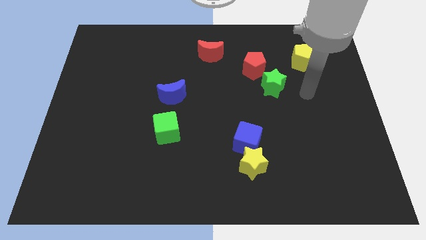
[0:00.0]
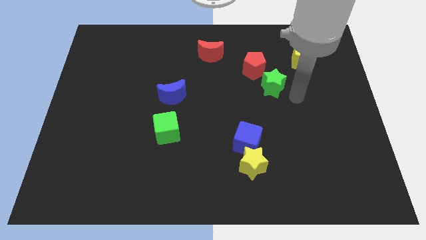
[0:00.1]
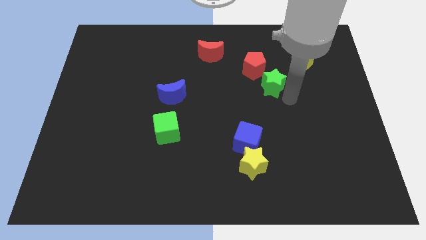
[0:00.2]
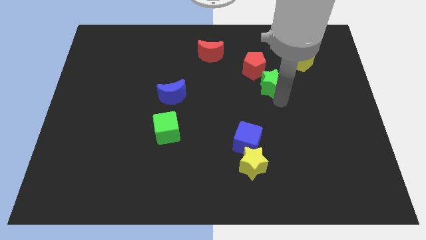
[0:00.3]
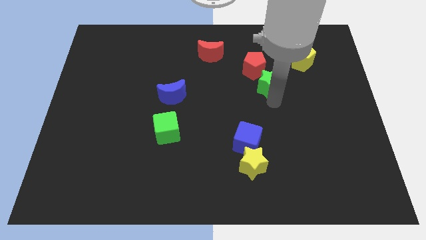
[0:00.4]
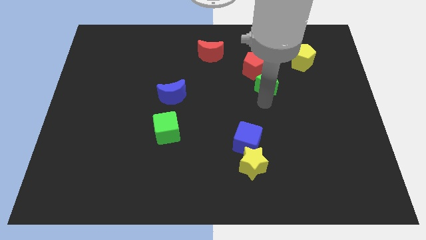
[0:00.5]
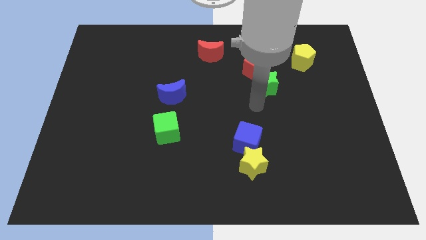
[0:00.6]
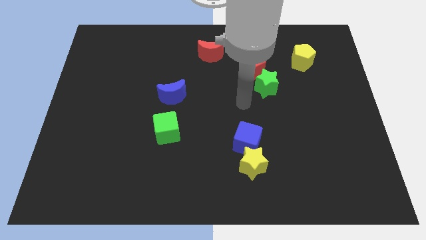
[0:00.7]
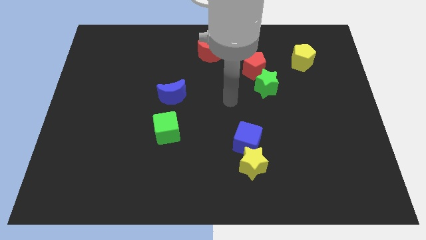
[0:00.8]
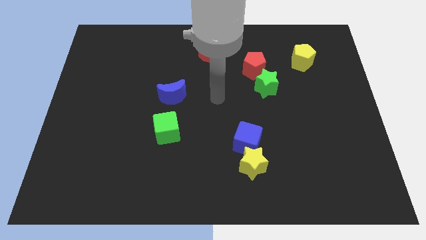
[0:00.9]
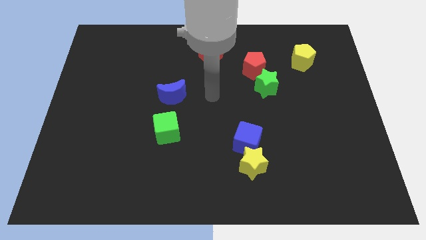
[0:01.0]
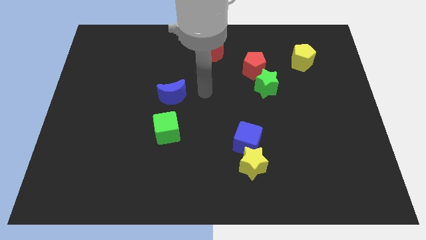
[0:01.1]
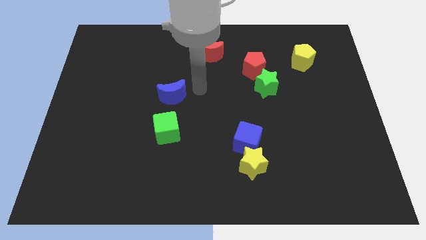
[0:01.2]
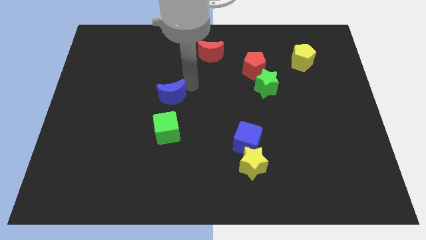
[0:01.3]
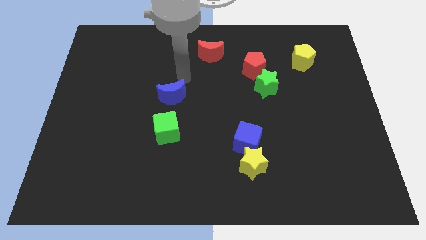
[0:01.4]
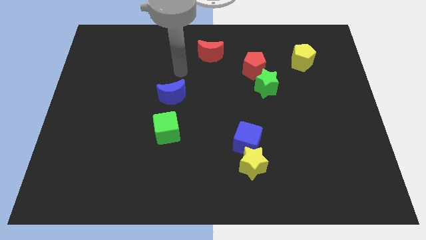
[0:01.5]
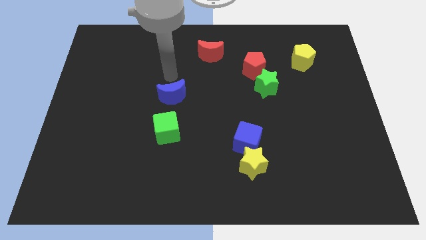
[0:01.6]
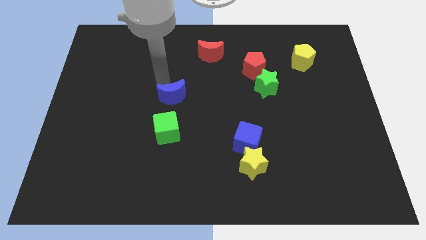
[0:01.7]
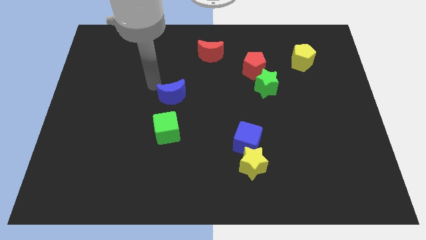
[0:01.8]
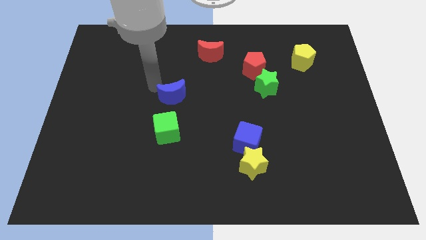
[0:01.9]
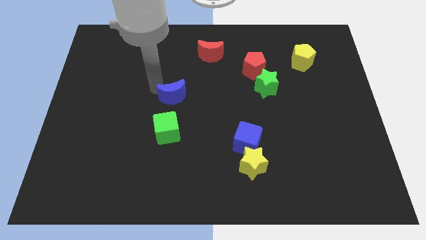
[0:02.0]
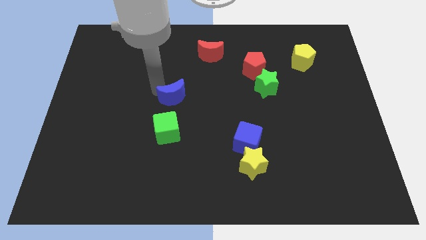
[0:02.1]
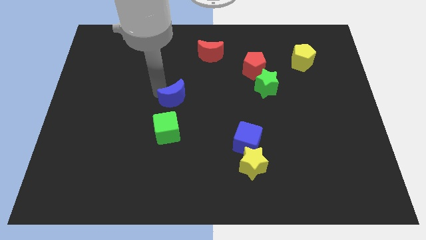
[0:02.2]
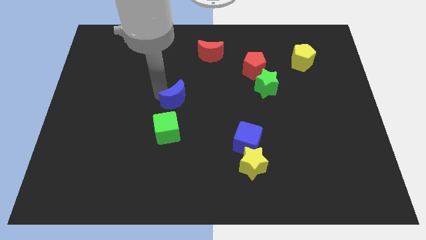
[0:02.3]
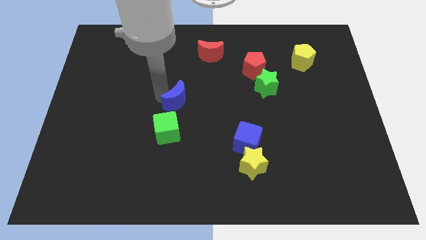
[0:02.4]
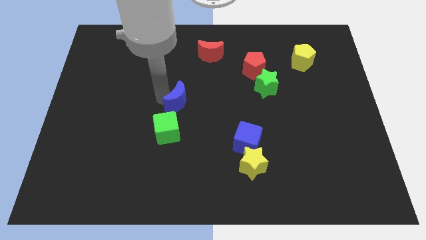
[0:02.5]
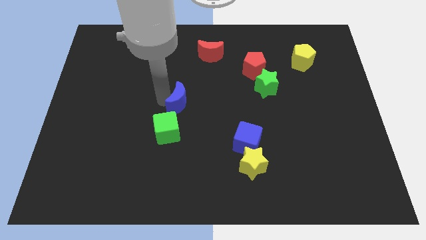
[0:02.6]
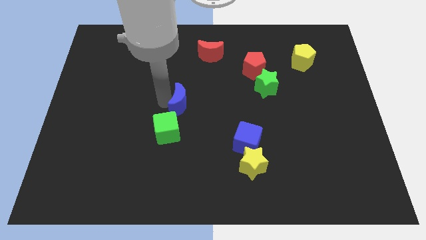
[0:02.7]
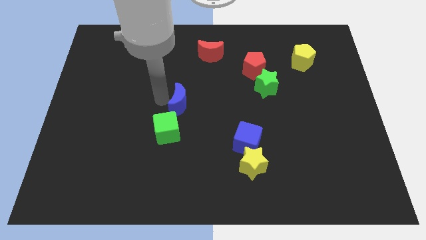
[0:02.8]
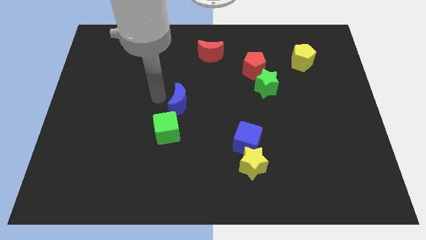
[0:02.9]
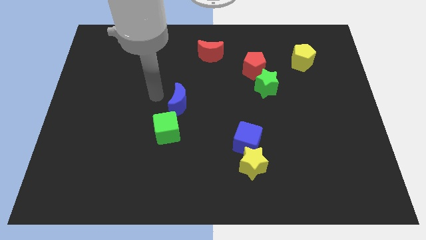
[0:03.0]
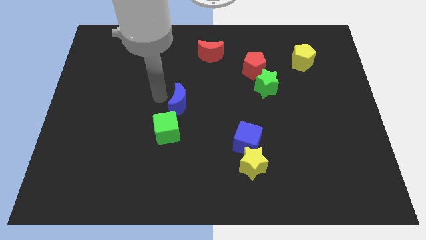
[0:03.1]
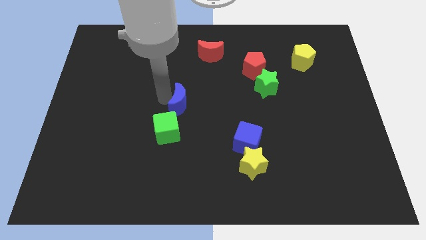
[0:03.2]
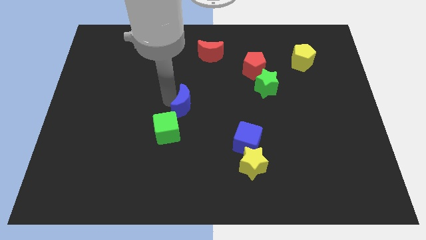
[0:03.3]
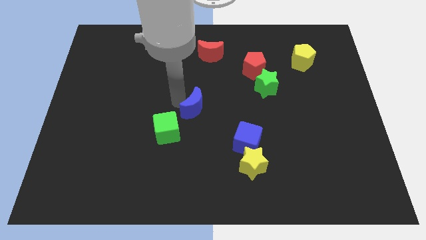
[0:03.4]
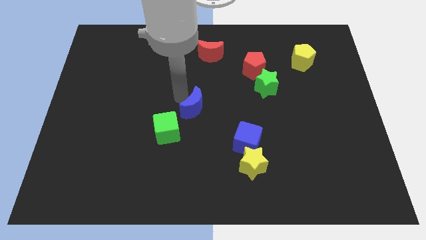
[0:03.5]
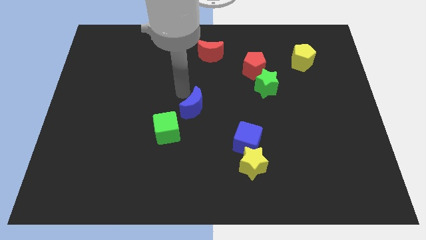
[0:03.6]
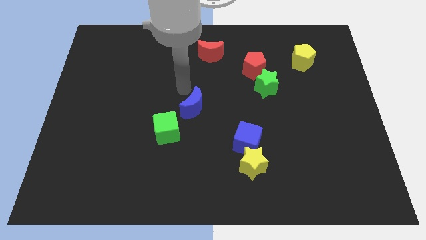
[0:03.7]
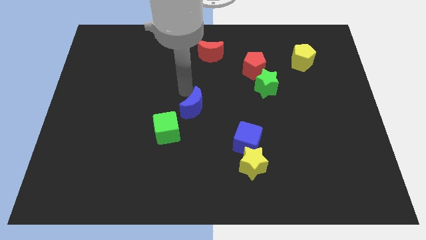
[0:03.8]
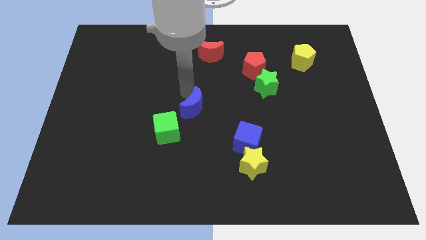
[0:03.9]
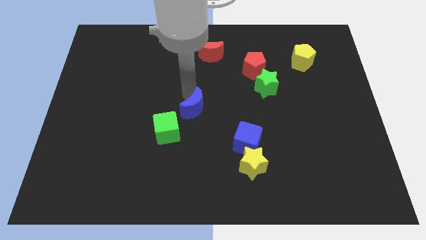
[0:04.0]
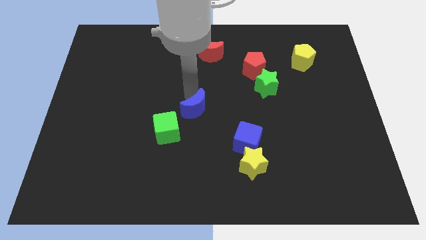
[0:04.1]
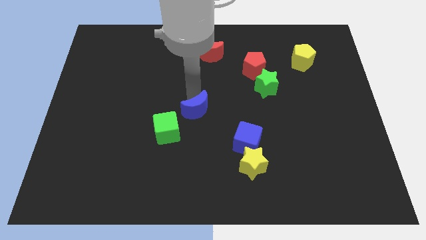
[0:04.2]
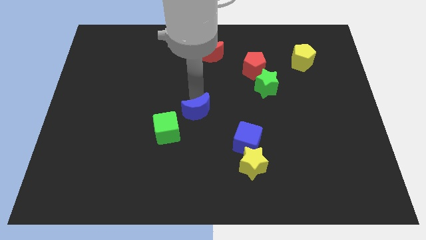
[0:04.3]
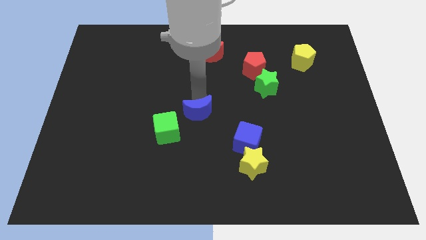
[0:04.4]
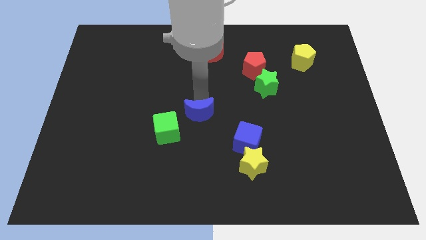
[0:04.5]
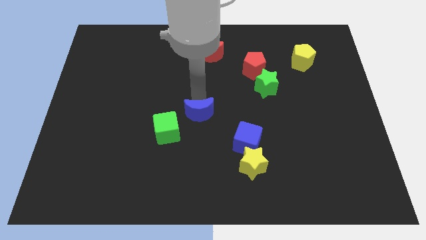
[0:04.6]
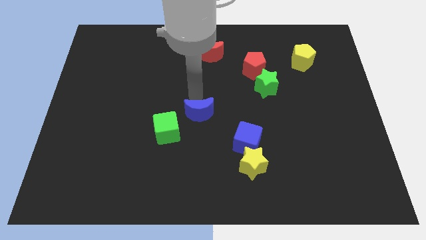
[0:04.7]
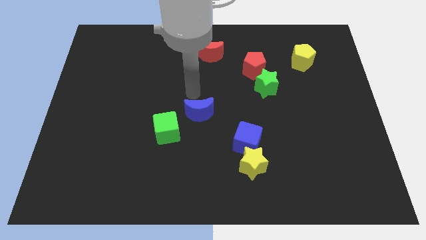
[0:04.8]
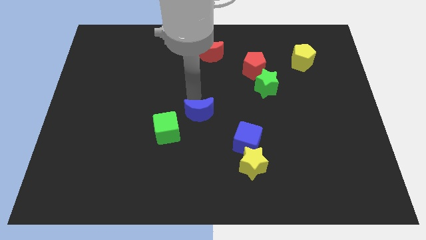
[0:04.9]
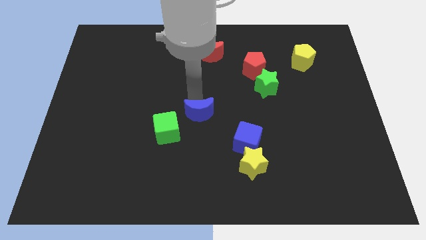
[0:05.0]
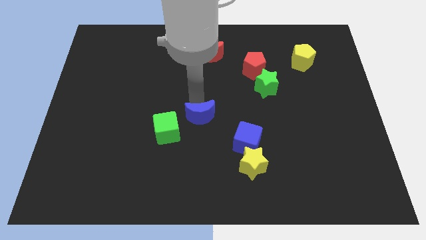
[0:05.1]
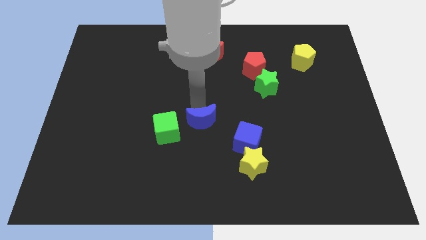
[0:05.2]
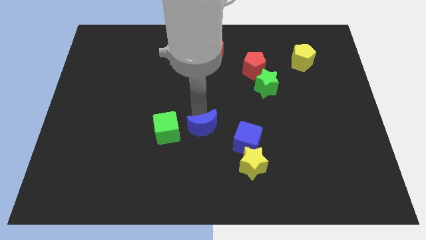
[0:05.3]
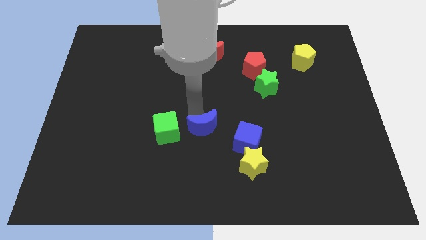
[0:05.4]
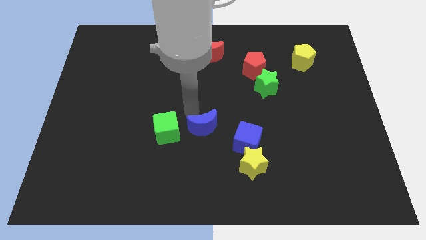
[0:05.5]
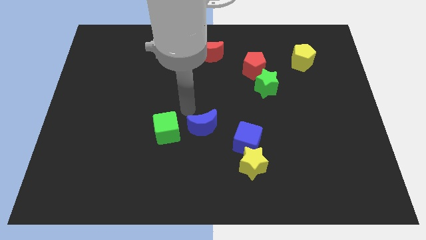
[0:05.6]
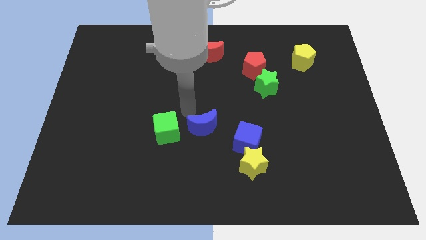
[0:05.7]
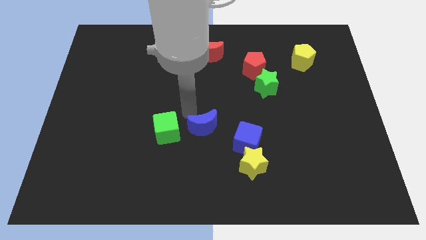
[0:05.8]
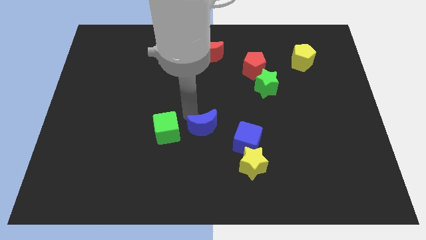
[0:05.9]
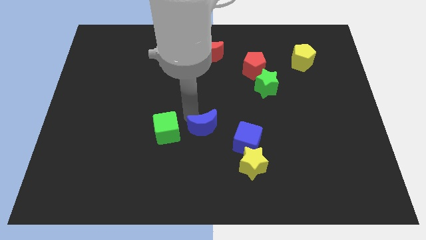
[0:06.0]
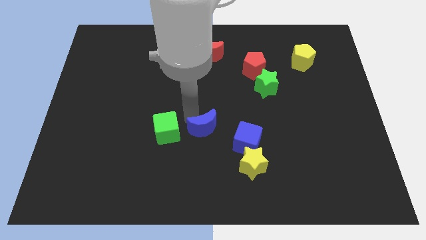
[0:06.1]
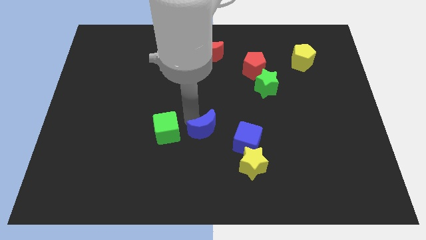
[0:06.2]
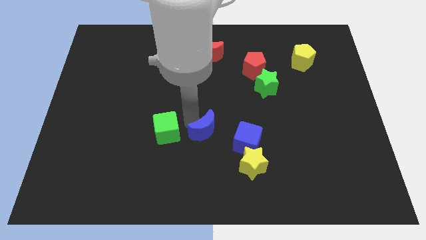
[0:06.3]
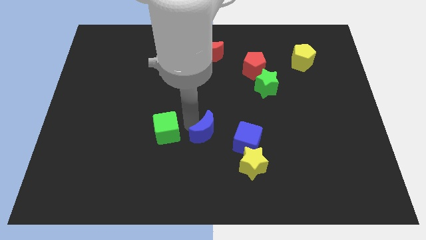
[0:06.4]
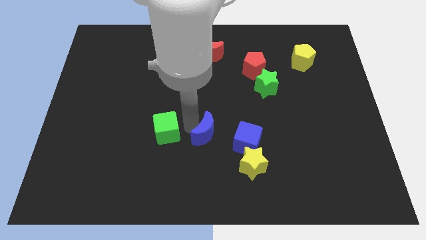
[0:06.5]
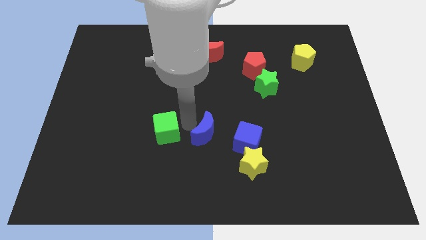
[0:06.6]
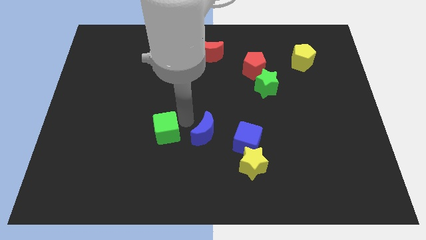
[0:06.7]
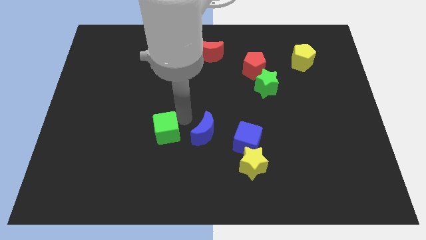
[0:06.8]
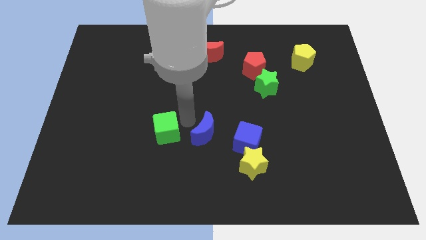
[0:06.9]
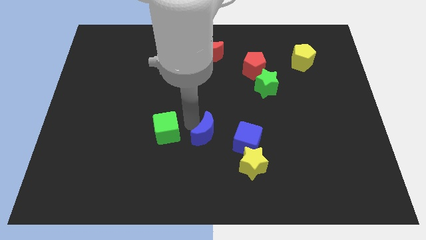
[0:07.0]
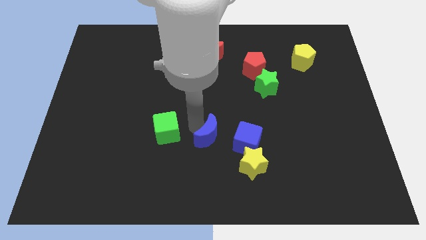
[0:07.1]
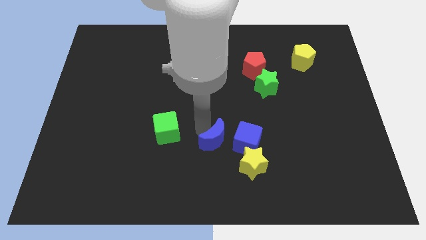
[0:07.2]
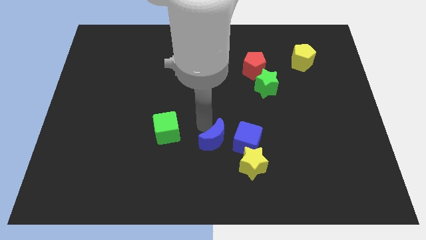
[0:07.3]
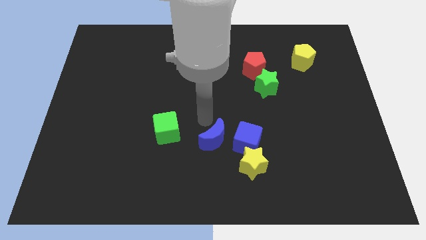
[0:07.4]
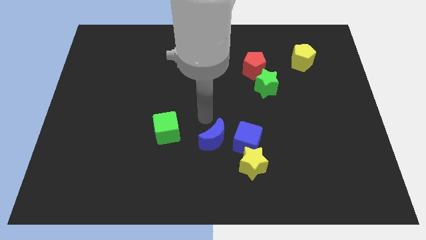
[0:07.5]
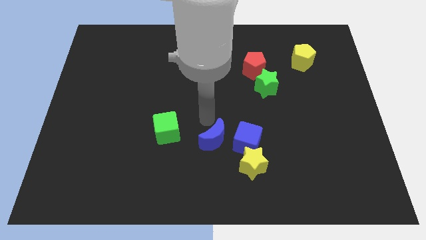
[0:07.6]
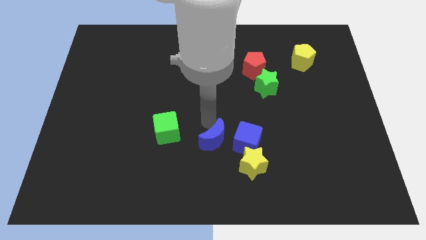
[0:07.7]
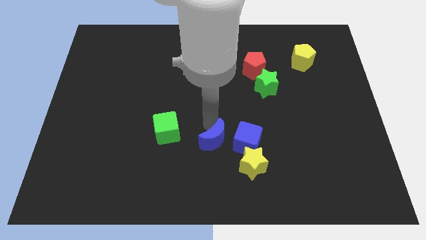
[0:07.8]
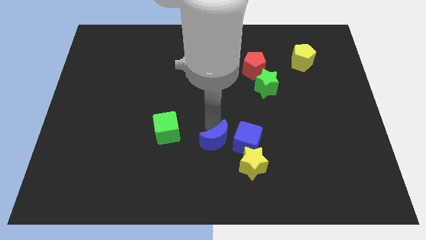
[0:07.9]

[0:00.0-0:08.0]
slide the blue moon to the bottom left side of the blue cube

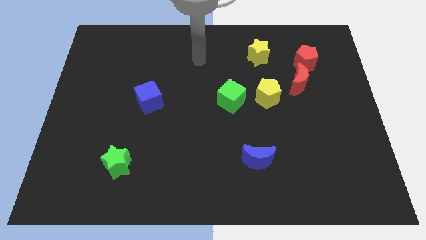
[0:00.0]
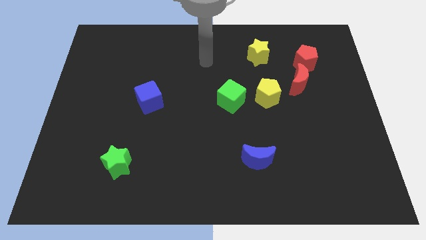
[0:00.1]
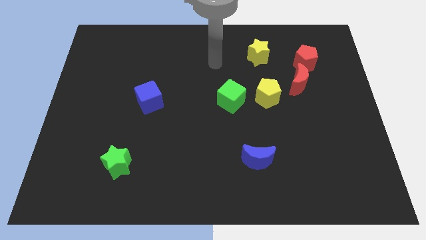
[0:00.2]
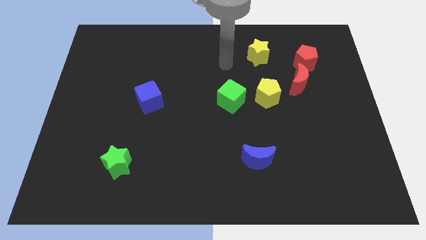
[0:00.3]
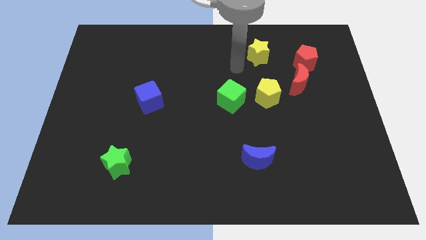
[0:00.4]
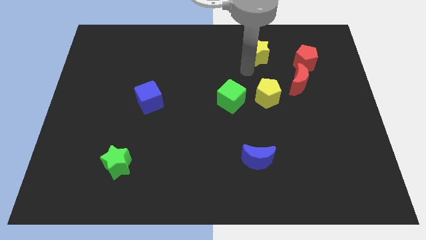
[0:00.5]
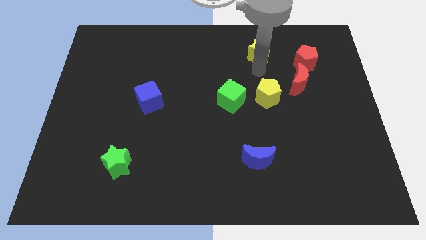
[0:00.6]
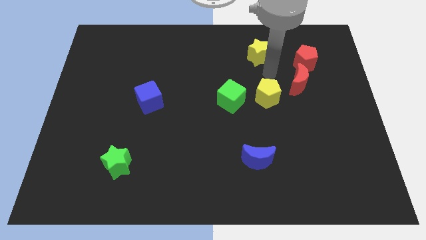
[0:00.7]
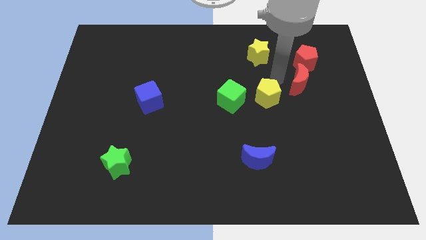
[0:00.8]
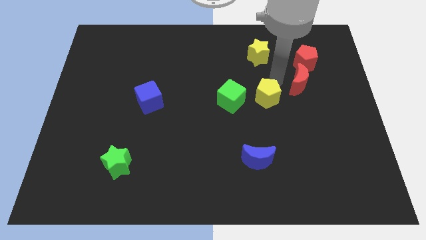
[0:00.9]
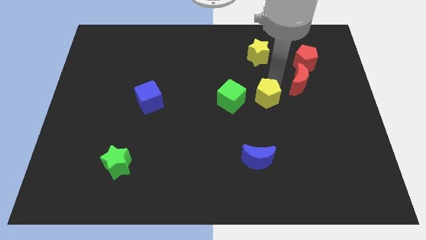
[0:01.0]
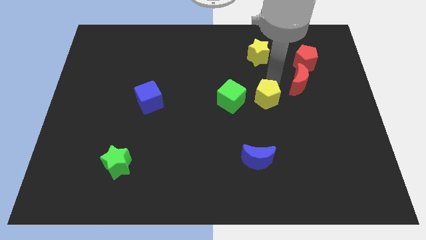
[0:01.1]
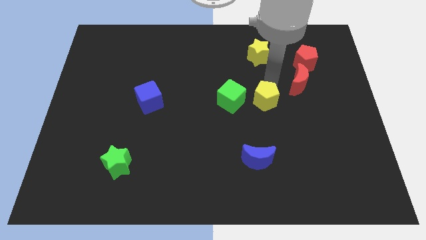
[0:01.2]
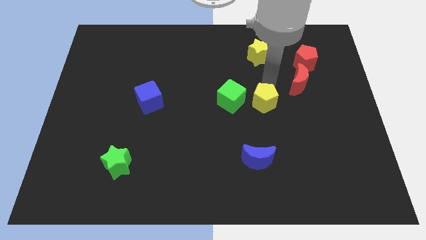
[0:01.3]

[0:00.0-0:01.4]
push the yellow pentagon to the bottom right side of the green cube
